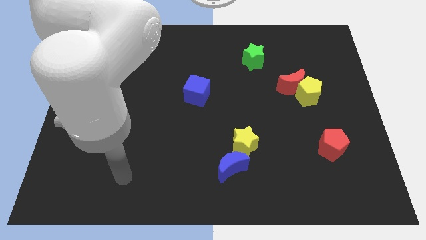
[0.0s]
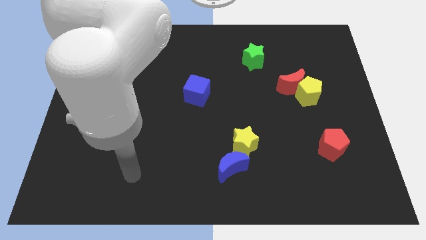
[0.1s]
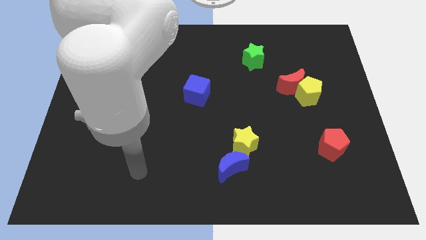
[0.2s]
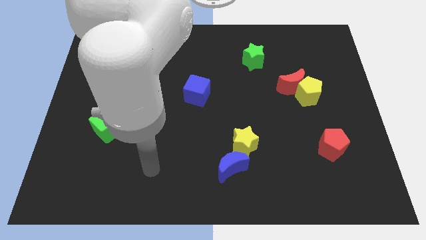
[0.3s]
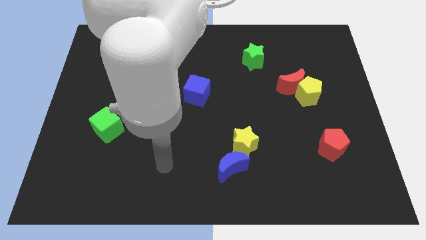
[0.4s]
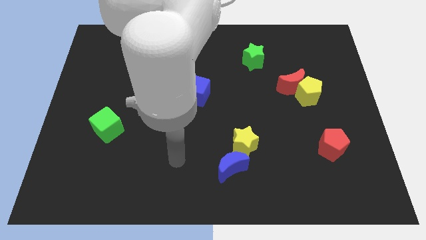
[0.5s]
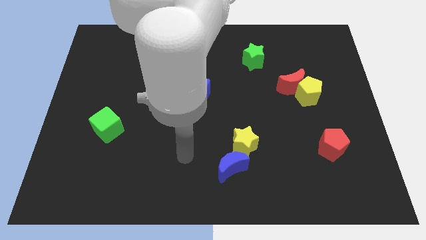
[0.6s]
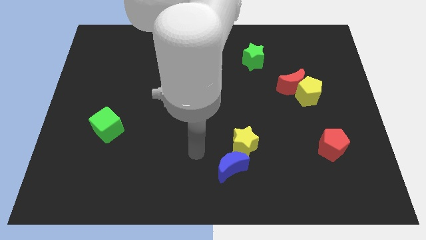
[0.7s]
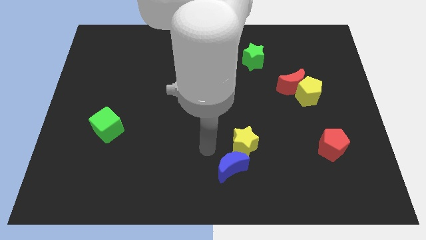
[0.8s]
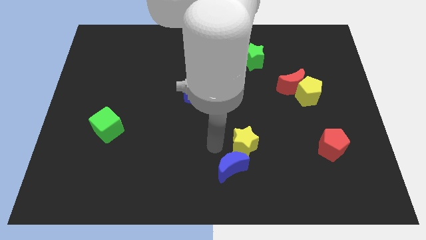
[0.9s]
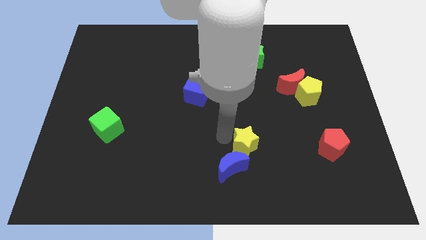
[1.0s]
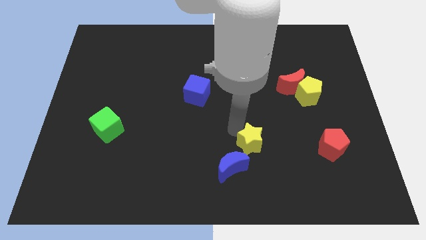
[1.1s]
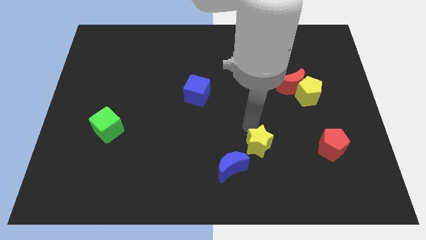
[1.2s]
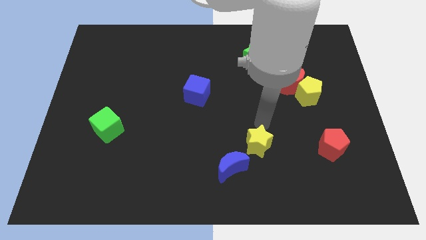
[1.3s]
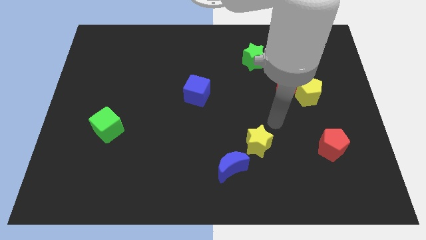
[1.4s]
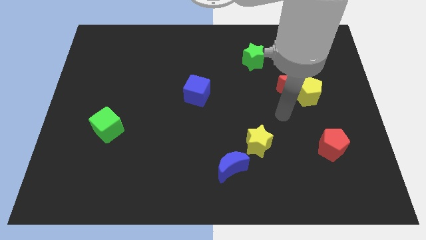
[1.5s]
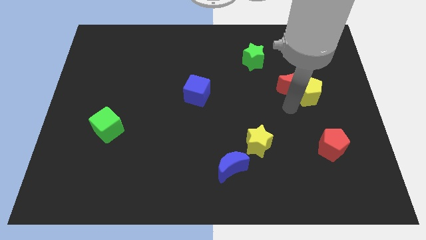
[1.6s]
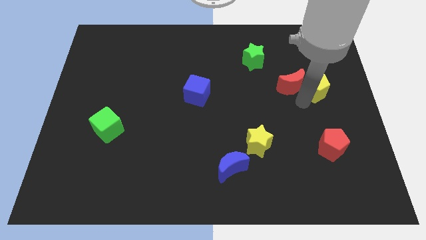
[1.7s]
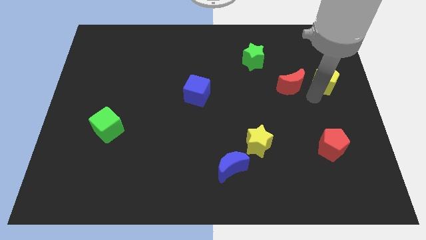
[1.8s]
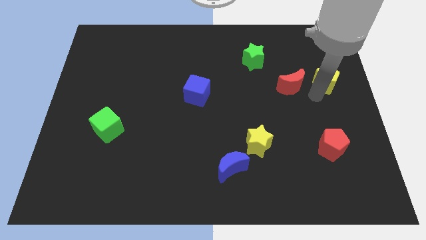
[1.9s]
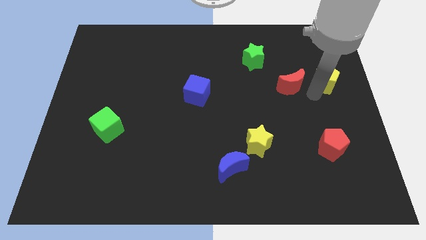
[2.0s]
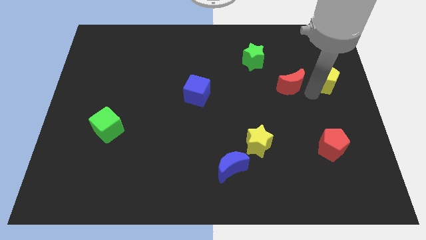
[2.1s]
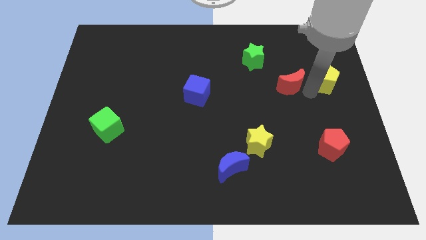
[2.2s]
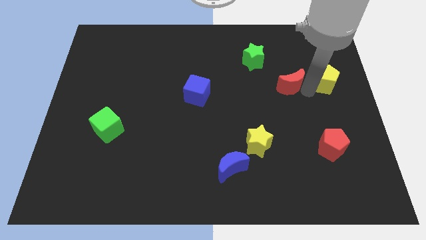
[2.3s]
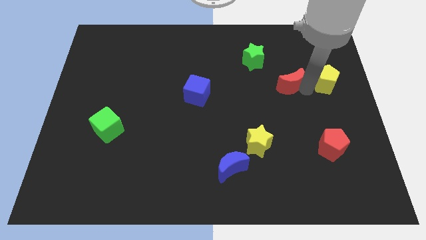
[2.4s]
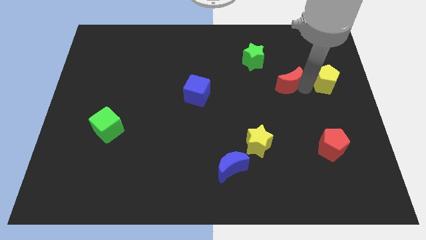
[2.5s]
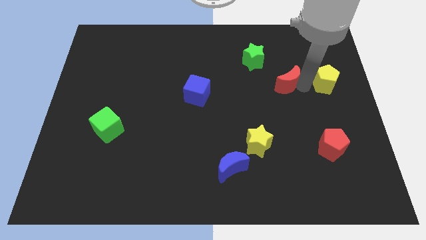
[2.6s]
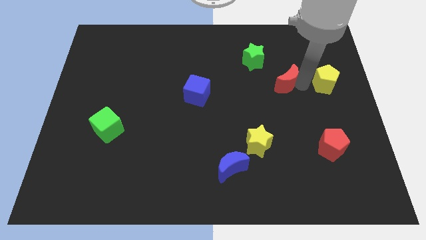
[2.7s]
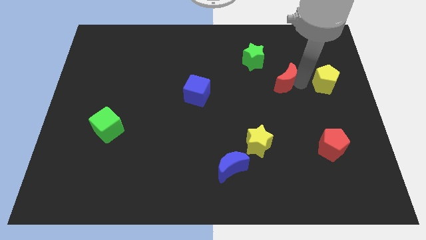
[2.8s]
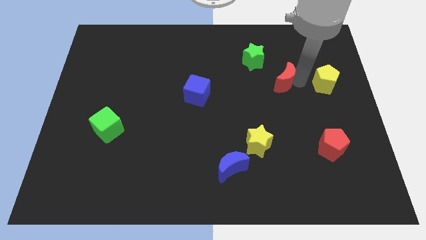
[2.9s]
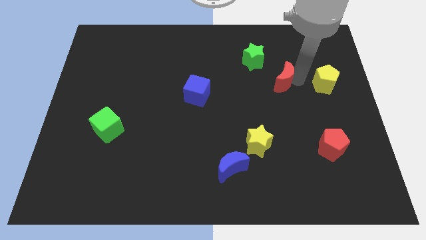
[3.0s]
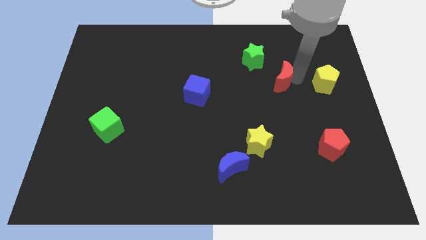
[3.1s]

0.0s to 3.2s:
pull the red moon apart from the yellow pentagon

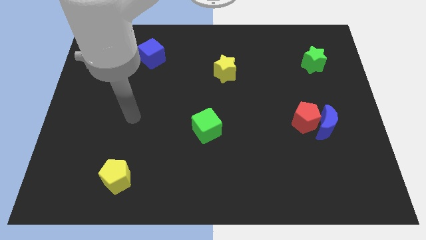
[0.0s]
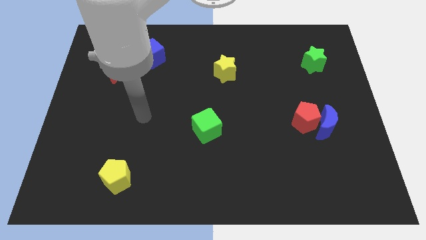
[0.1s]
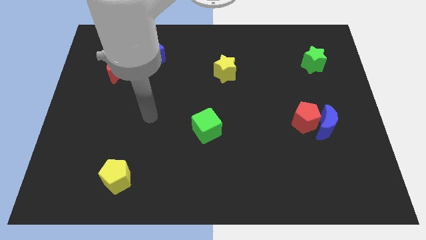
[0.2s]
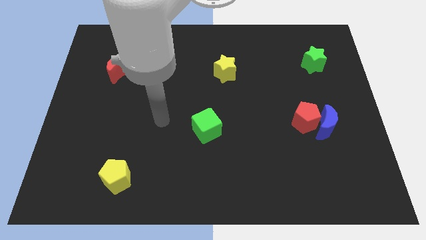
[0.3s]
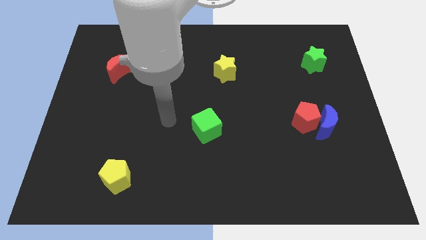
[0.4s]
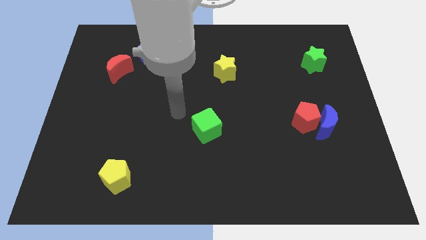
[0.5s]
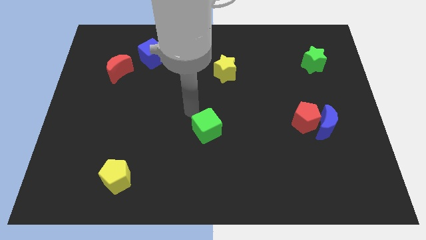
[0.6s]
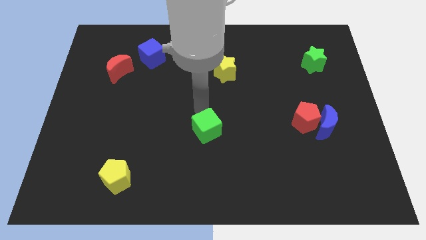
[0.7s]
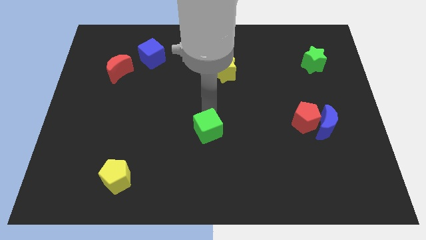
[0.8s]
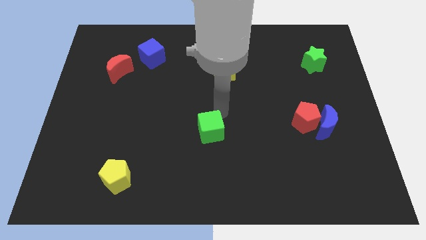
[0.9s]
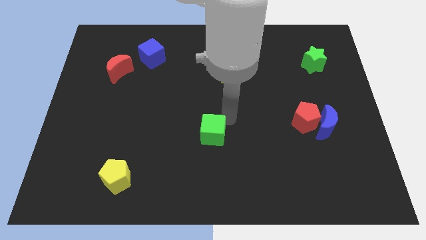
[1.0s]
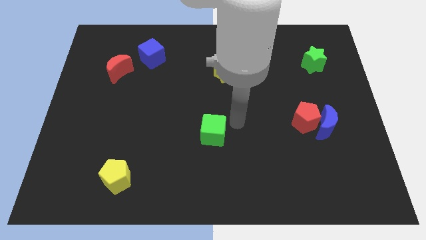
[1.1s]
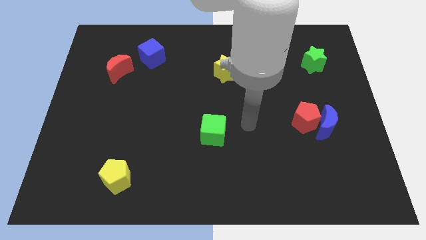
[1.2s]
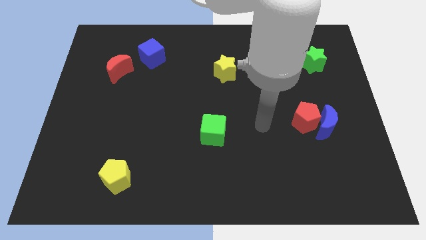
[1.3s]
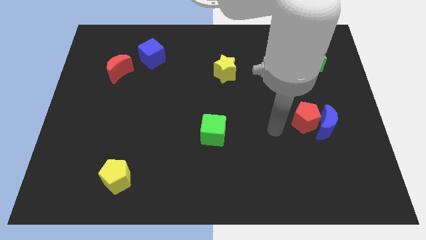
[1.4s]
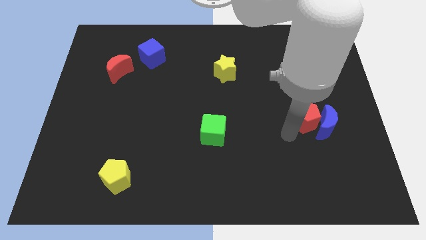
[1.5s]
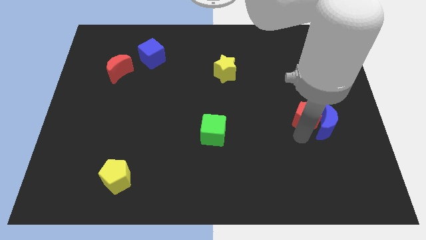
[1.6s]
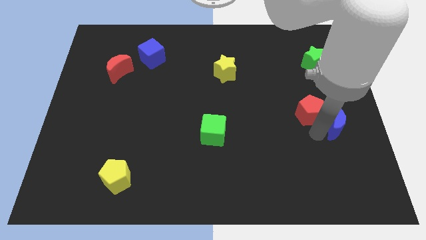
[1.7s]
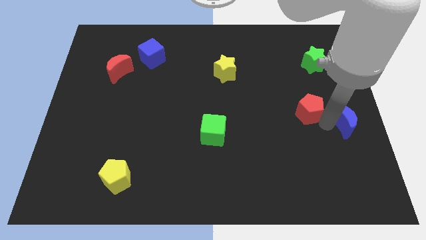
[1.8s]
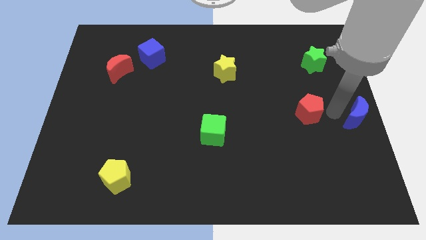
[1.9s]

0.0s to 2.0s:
move the red pentagon away from the blue moon

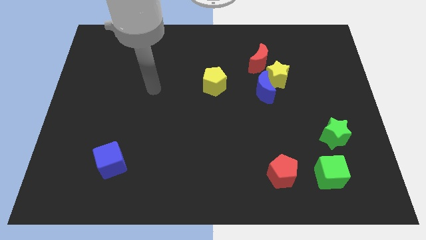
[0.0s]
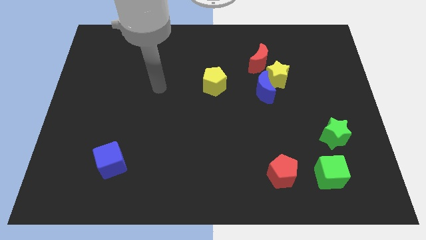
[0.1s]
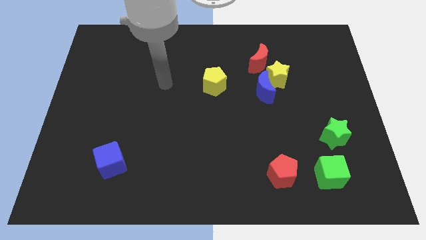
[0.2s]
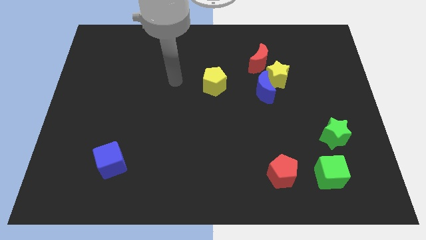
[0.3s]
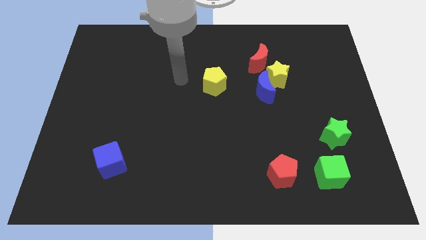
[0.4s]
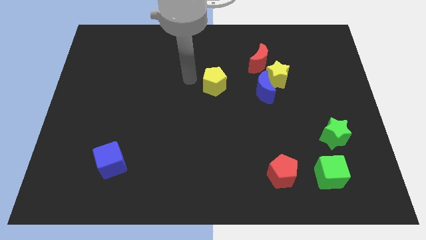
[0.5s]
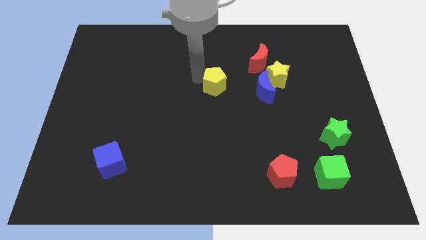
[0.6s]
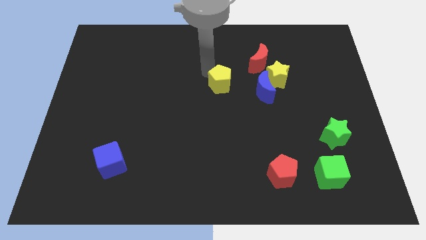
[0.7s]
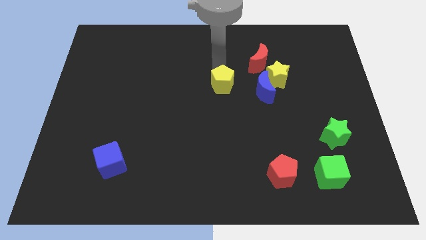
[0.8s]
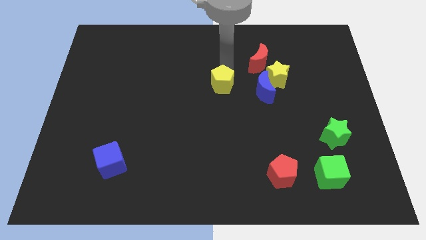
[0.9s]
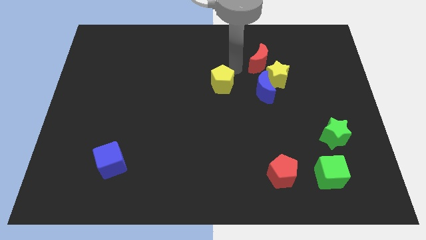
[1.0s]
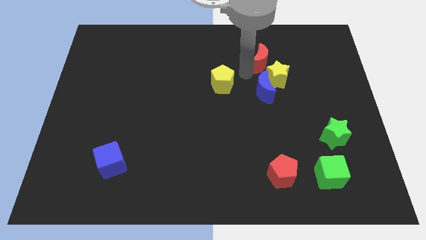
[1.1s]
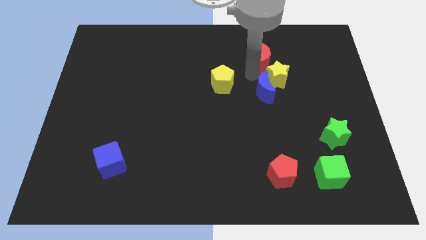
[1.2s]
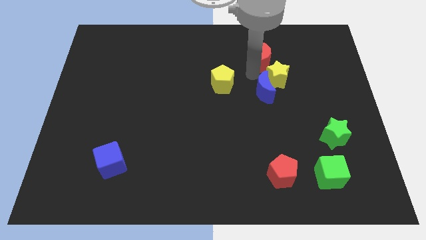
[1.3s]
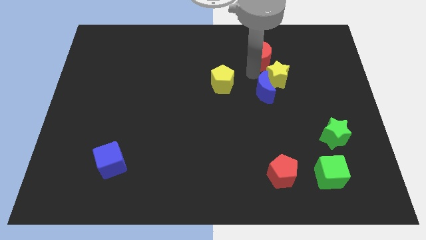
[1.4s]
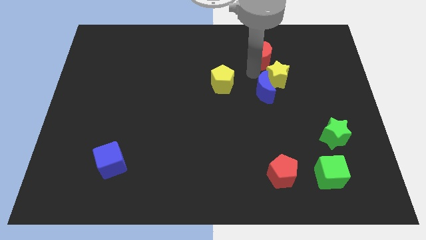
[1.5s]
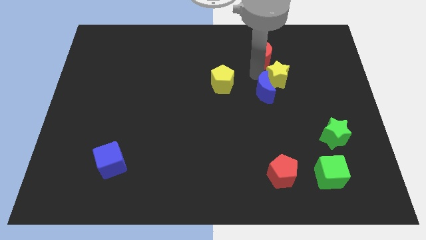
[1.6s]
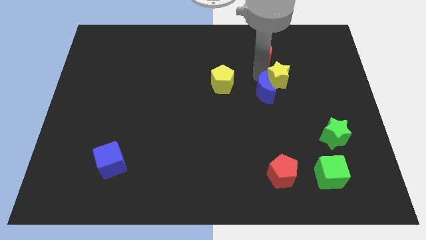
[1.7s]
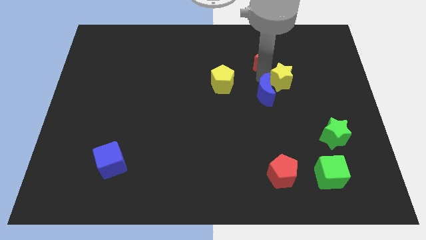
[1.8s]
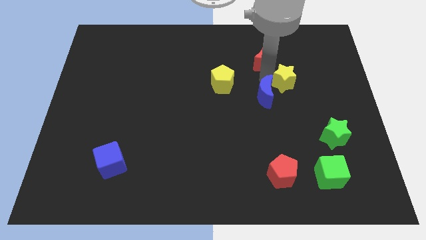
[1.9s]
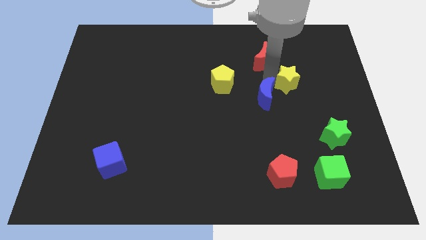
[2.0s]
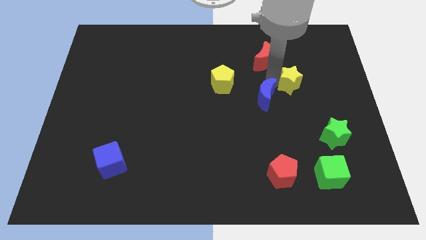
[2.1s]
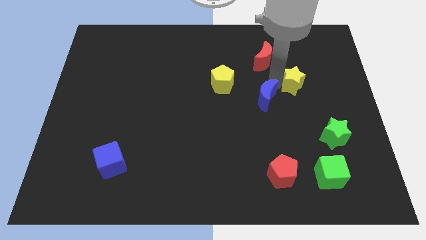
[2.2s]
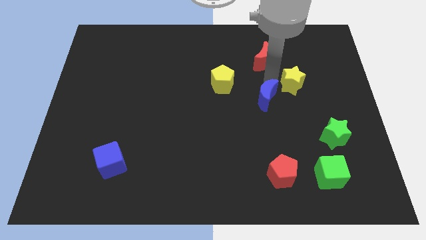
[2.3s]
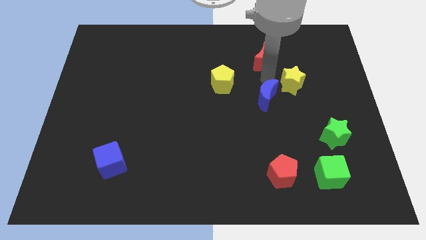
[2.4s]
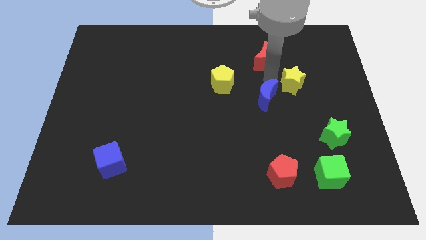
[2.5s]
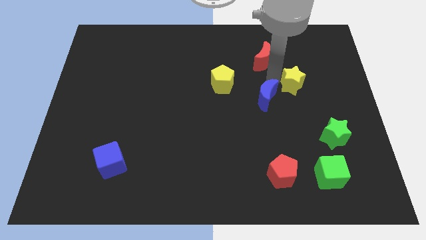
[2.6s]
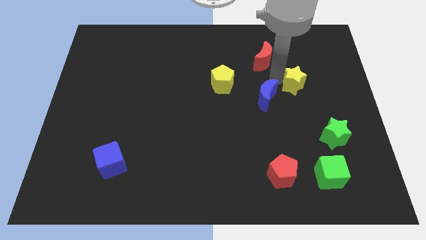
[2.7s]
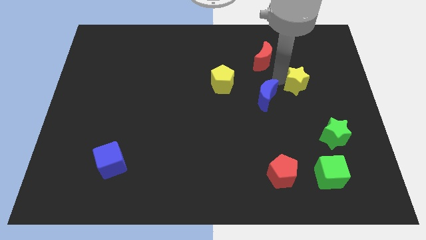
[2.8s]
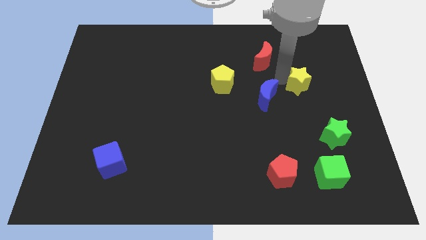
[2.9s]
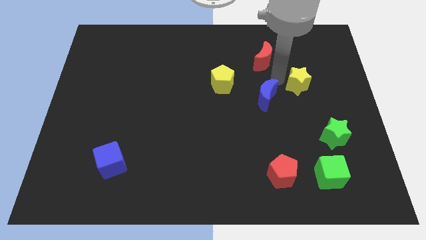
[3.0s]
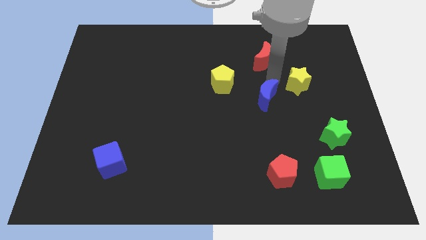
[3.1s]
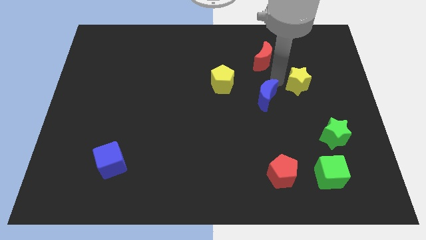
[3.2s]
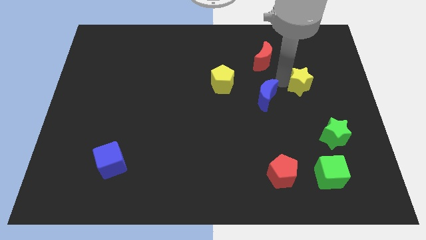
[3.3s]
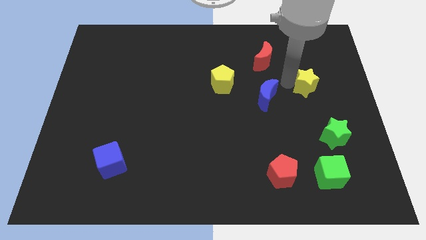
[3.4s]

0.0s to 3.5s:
separate the yellow star from the blue moon and red moon

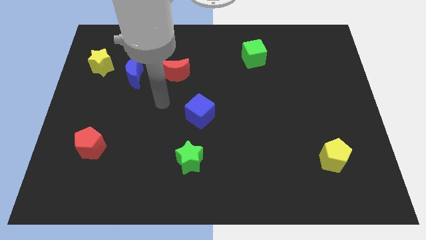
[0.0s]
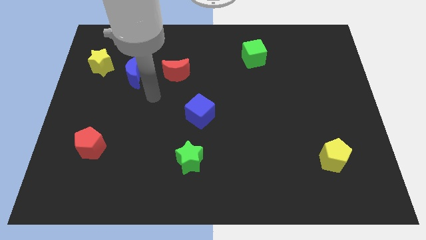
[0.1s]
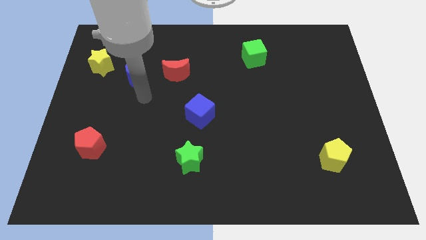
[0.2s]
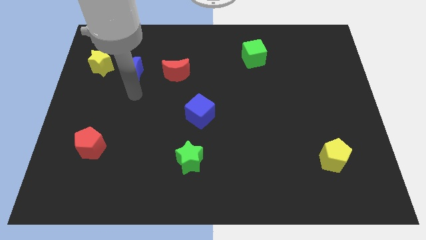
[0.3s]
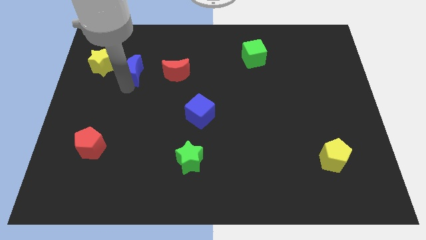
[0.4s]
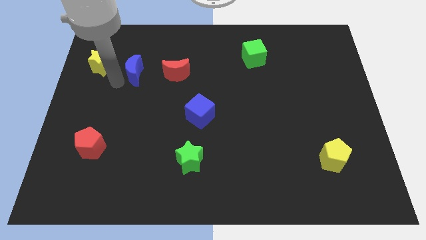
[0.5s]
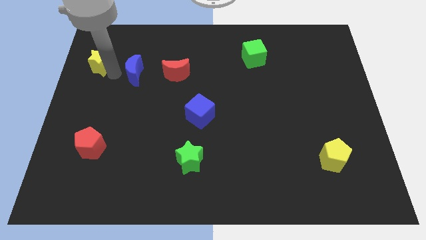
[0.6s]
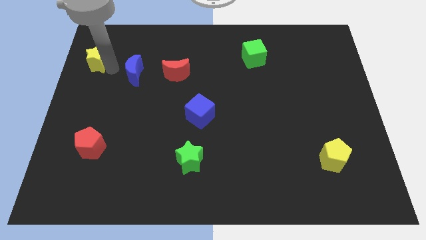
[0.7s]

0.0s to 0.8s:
pull the blue moon apart from the yellow star

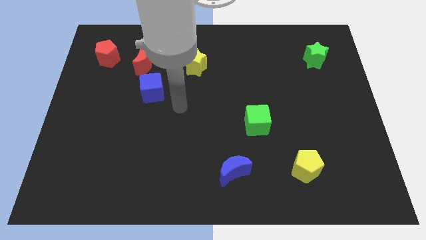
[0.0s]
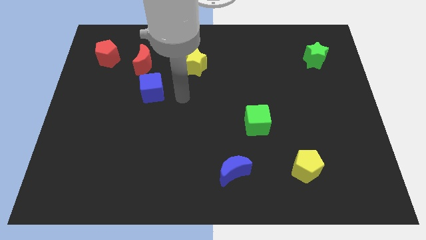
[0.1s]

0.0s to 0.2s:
separate the blue cube from the red moon
